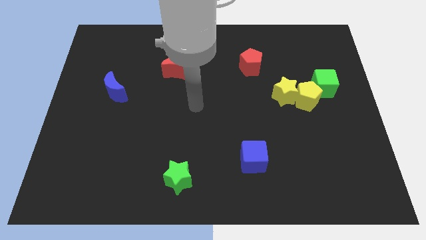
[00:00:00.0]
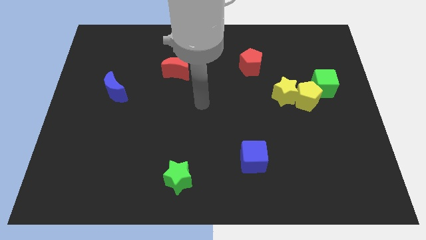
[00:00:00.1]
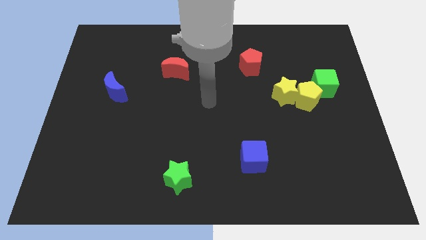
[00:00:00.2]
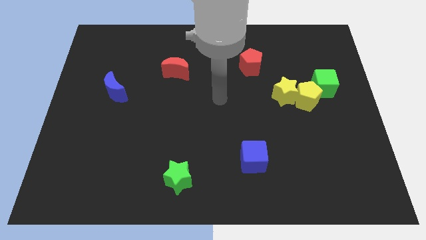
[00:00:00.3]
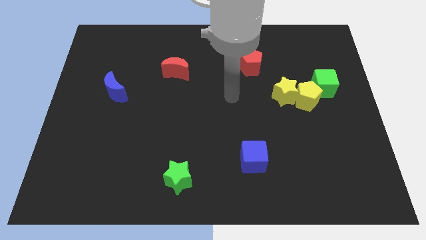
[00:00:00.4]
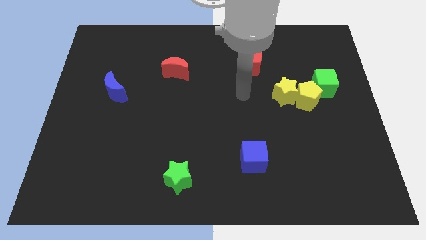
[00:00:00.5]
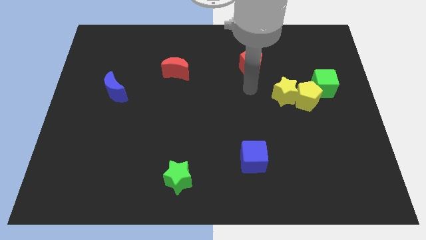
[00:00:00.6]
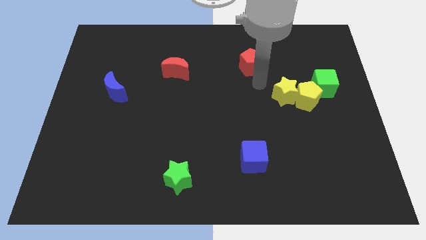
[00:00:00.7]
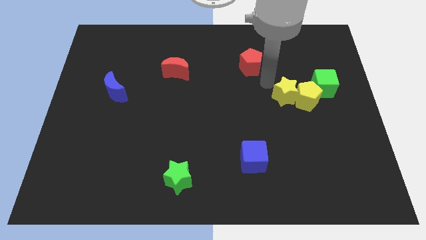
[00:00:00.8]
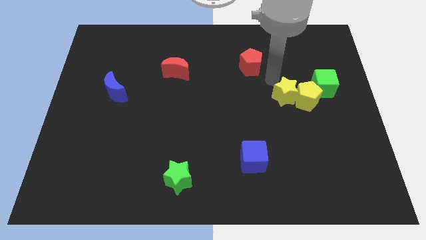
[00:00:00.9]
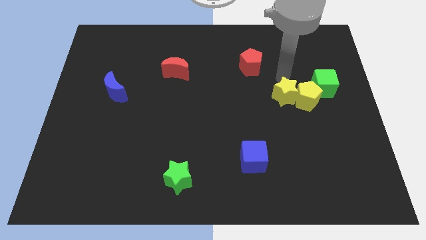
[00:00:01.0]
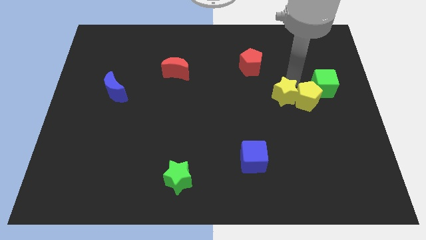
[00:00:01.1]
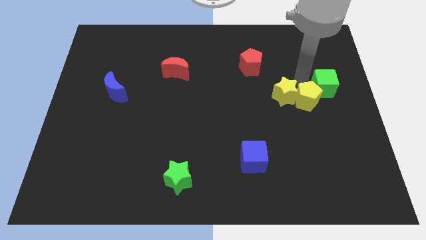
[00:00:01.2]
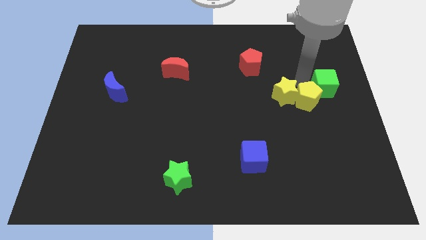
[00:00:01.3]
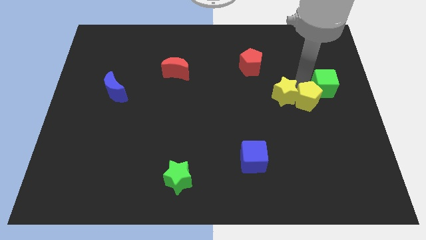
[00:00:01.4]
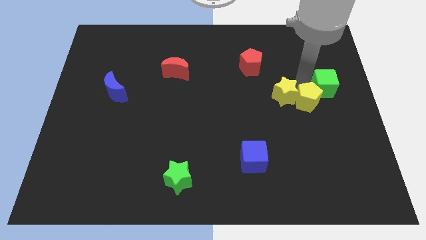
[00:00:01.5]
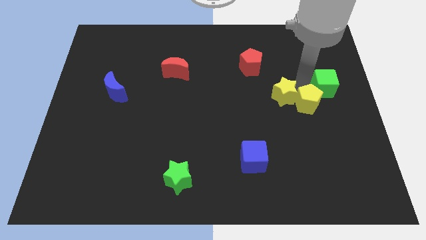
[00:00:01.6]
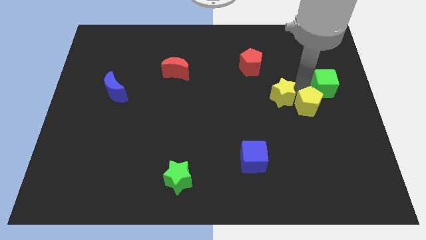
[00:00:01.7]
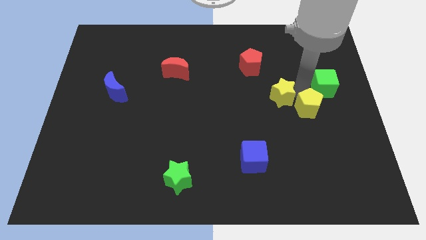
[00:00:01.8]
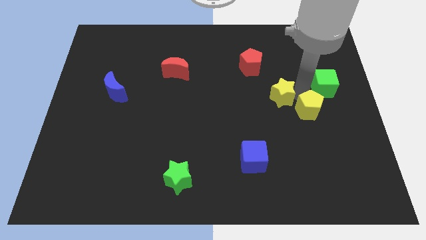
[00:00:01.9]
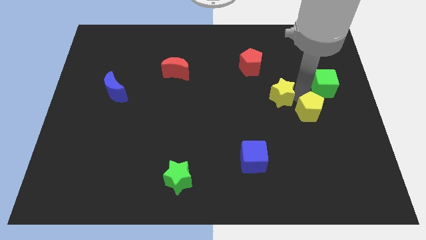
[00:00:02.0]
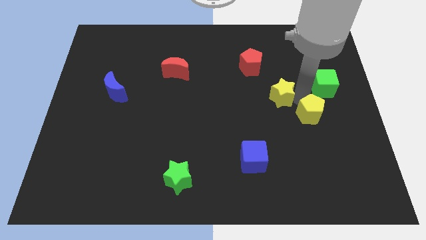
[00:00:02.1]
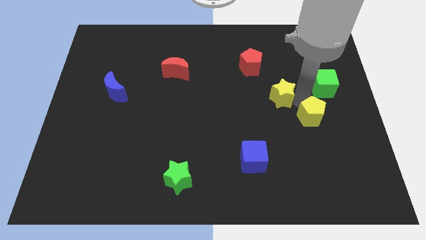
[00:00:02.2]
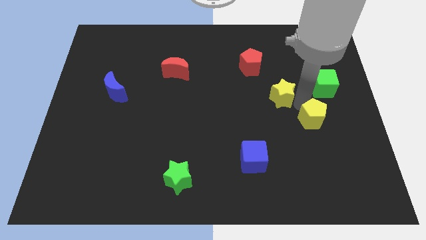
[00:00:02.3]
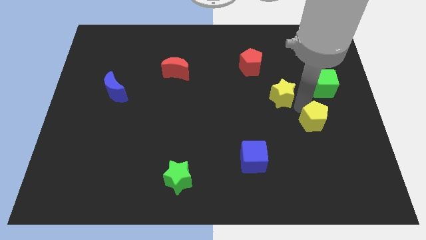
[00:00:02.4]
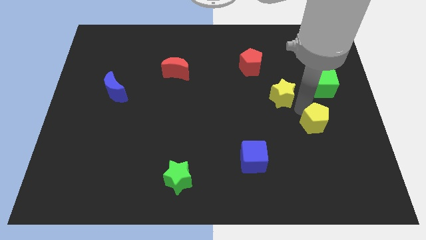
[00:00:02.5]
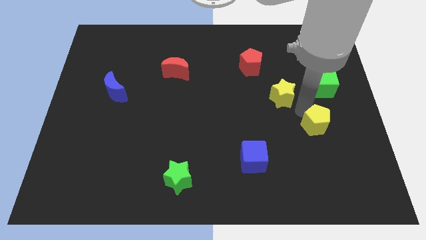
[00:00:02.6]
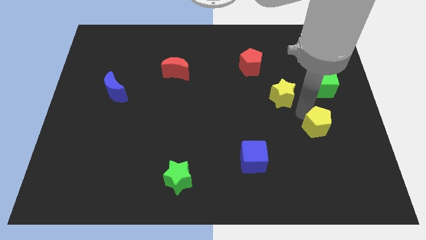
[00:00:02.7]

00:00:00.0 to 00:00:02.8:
separate the yellow pentagon from the yellow star and green cube

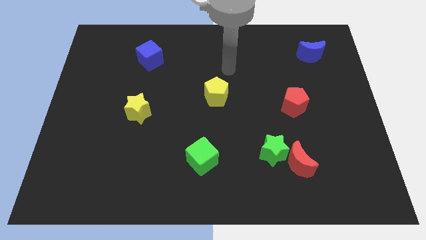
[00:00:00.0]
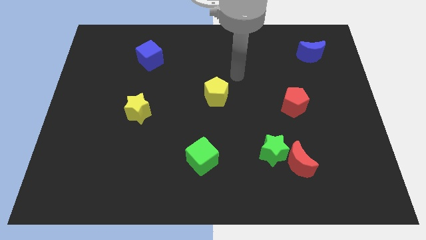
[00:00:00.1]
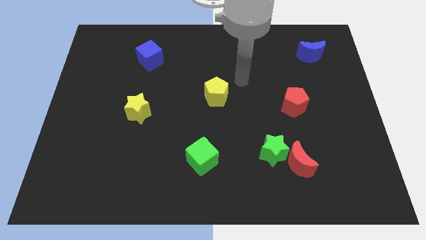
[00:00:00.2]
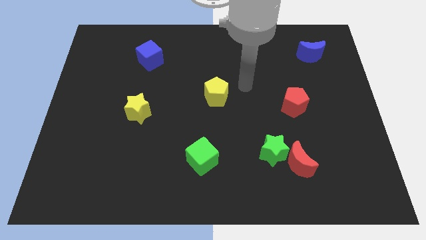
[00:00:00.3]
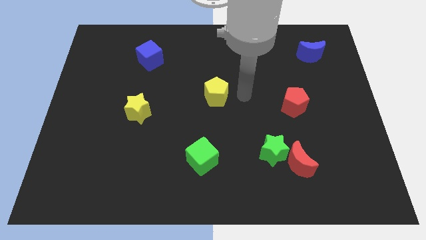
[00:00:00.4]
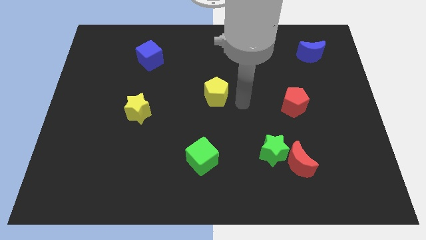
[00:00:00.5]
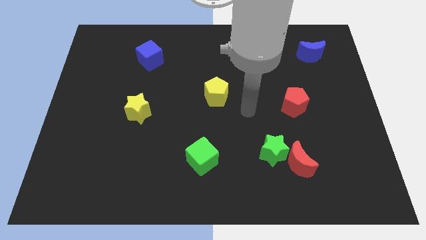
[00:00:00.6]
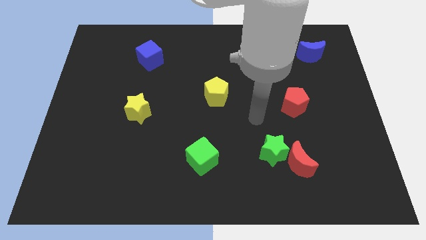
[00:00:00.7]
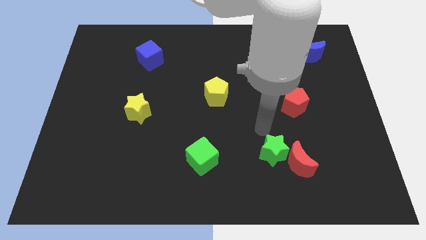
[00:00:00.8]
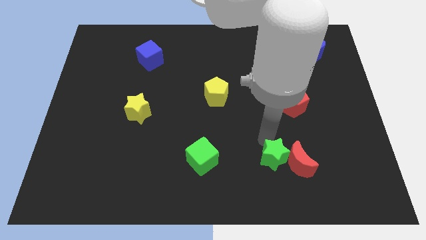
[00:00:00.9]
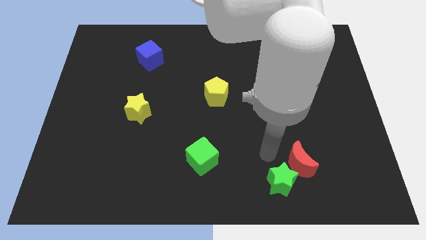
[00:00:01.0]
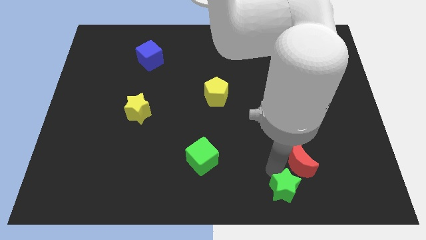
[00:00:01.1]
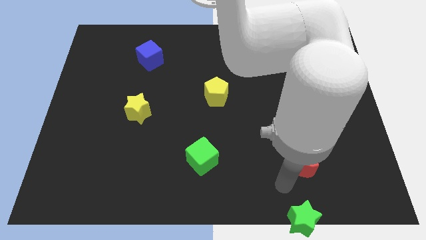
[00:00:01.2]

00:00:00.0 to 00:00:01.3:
move the red moon away from the green star

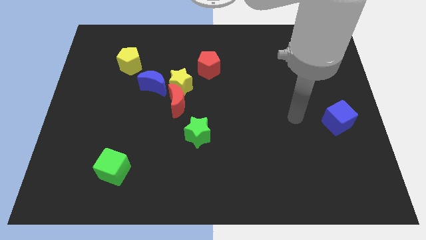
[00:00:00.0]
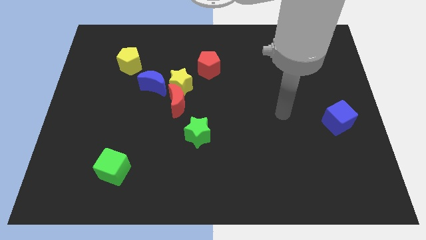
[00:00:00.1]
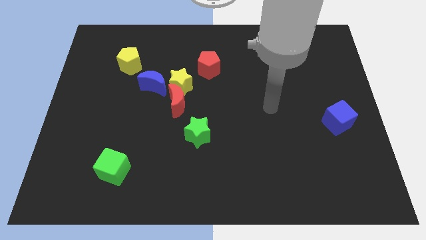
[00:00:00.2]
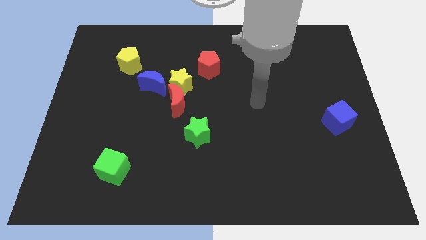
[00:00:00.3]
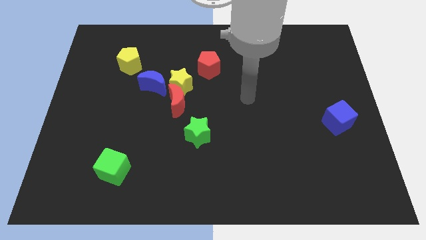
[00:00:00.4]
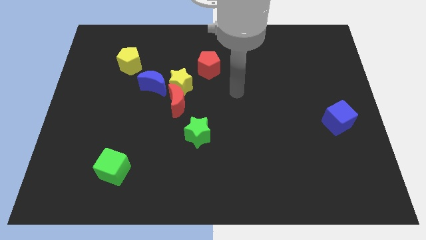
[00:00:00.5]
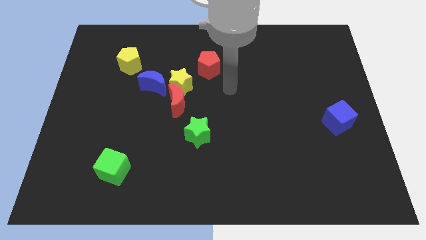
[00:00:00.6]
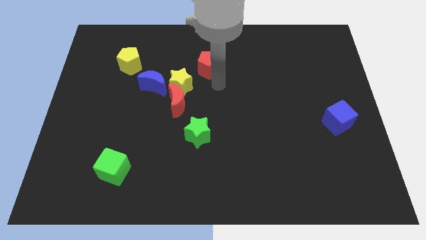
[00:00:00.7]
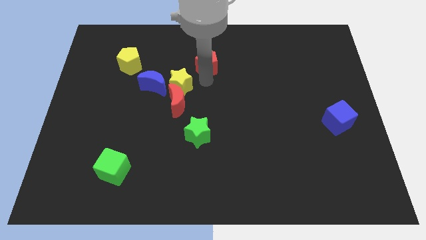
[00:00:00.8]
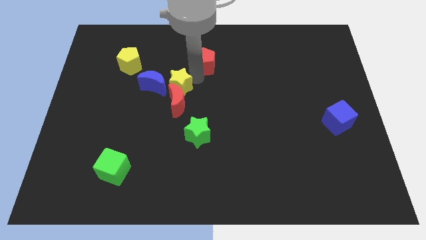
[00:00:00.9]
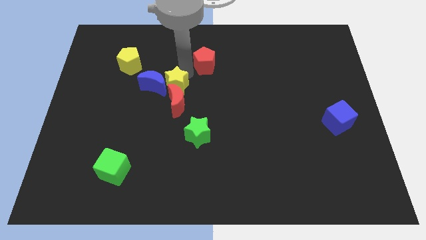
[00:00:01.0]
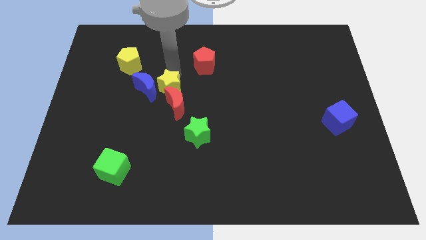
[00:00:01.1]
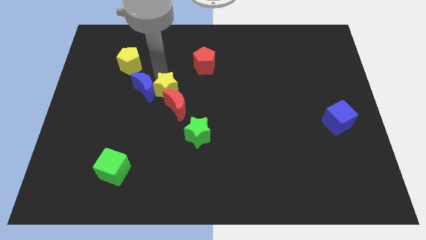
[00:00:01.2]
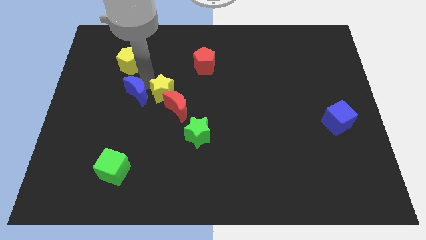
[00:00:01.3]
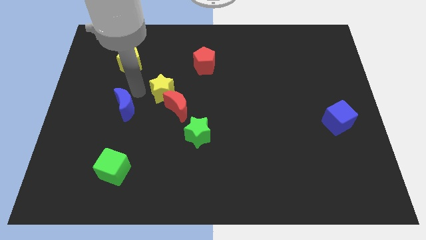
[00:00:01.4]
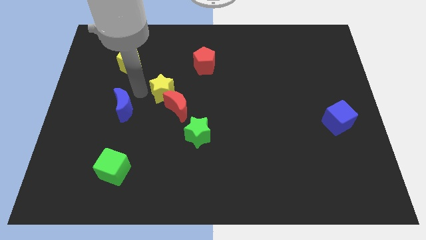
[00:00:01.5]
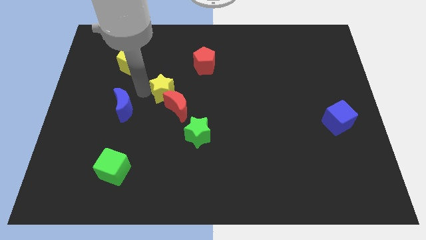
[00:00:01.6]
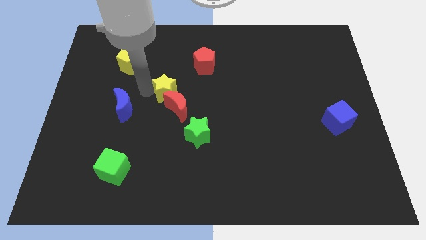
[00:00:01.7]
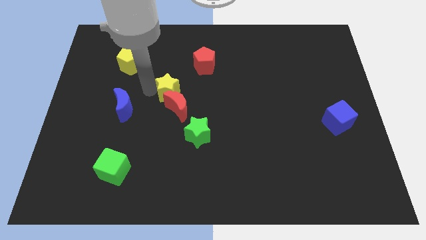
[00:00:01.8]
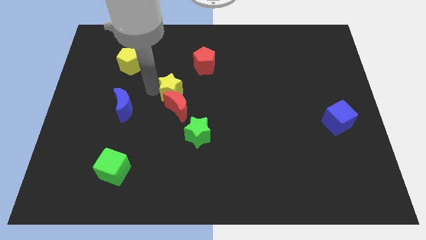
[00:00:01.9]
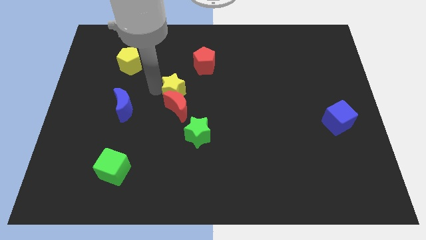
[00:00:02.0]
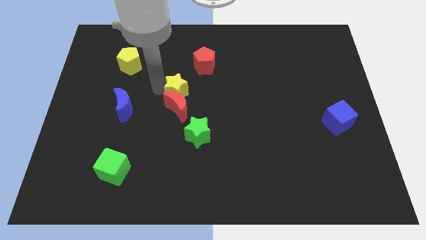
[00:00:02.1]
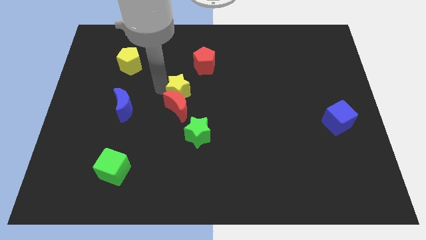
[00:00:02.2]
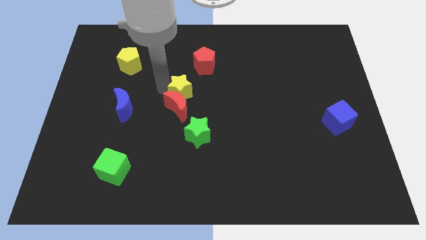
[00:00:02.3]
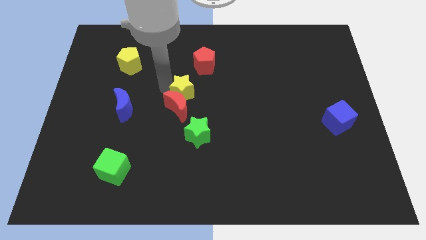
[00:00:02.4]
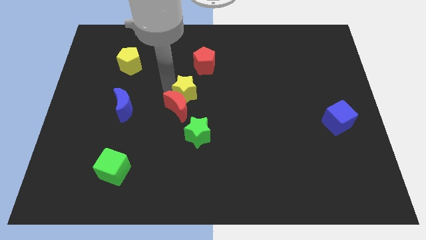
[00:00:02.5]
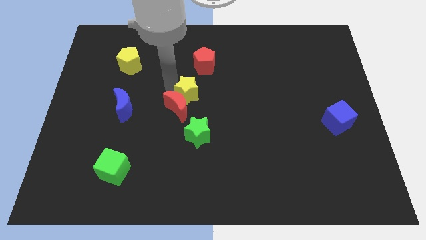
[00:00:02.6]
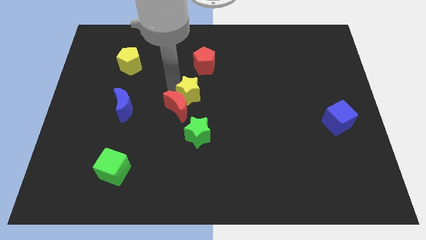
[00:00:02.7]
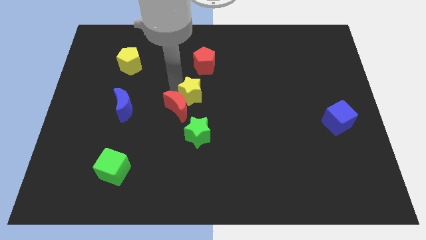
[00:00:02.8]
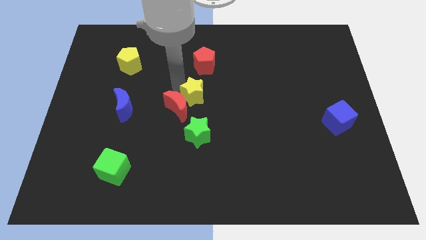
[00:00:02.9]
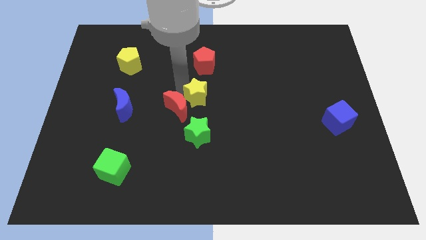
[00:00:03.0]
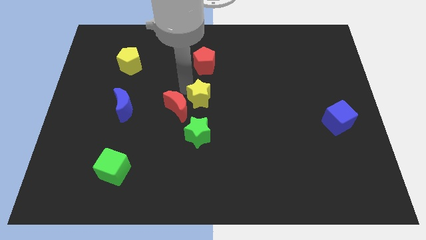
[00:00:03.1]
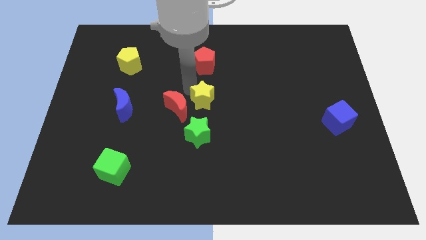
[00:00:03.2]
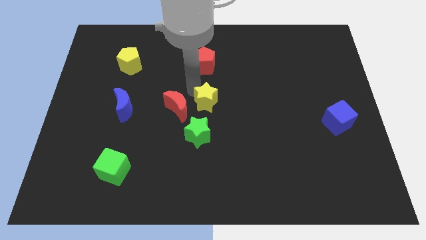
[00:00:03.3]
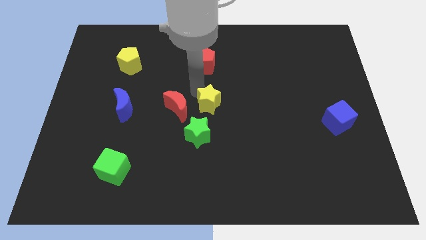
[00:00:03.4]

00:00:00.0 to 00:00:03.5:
pull the yellow star apart from the clump

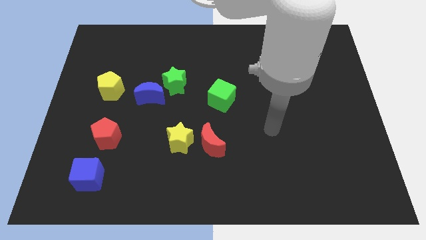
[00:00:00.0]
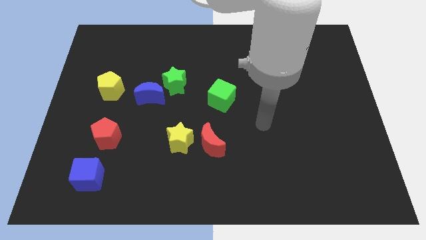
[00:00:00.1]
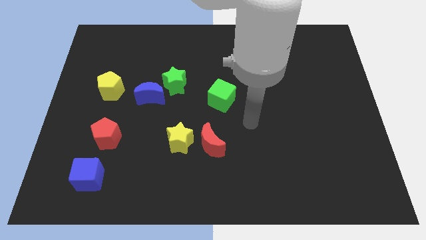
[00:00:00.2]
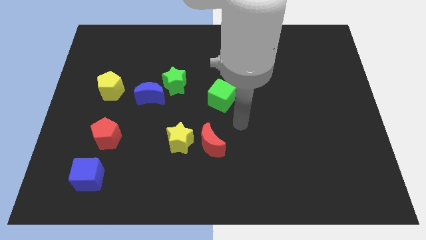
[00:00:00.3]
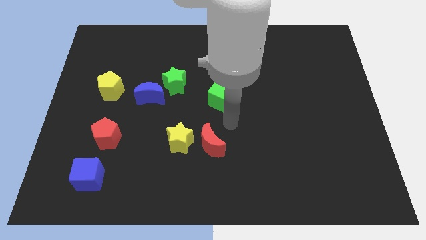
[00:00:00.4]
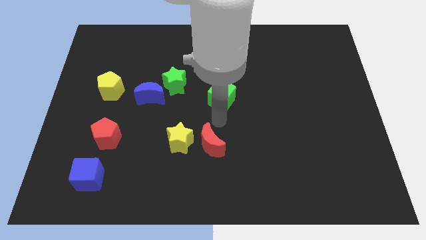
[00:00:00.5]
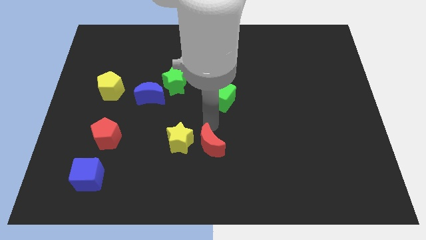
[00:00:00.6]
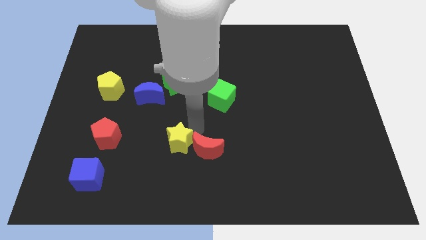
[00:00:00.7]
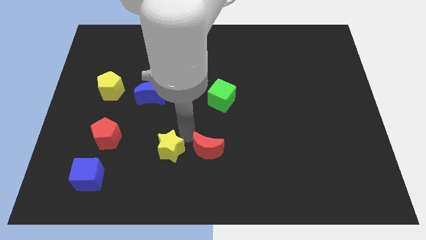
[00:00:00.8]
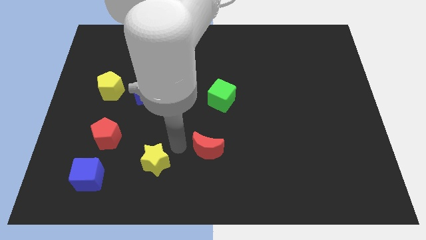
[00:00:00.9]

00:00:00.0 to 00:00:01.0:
separate the red moon from the yellow star

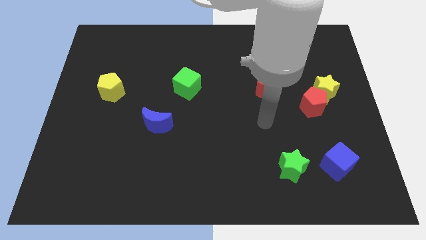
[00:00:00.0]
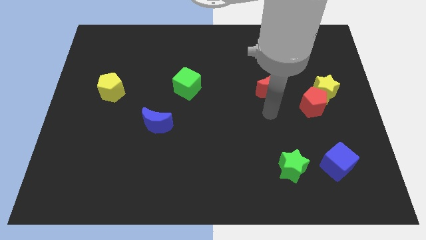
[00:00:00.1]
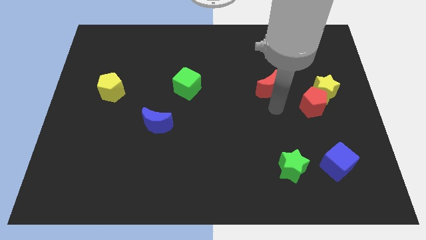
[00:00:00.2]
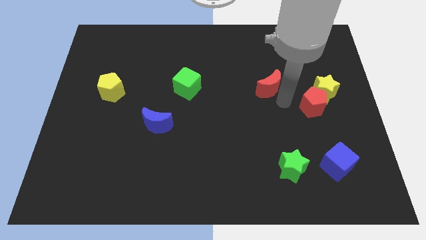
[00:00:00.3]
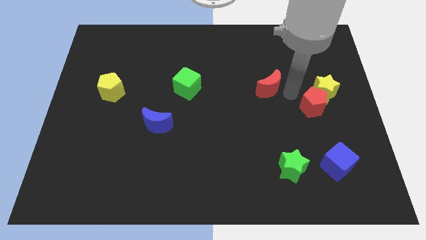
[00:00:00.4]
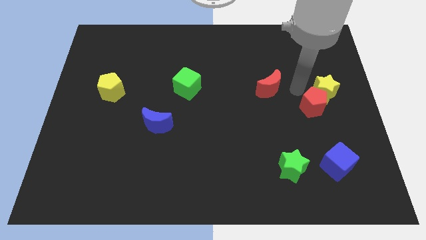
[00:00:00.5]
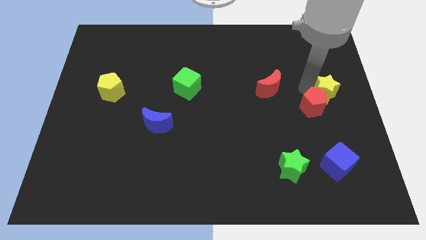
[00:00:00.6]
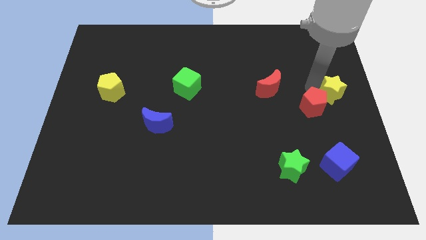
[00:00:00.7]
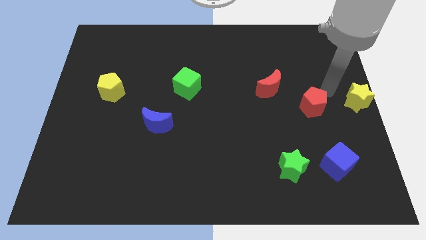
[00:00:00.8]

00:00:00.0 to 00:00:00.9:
pull the red pentagon apart from the yellow star
